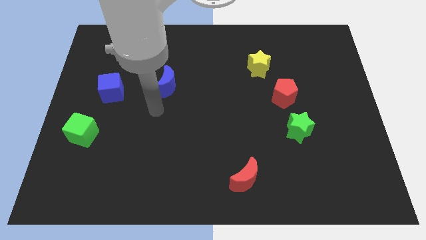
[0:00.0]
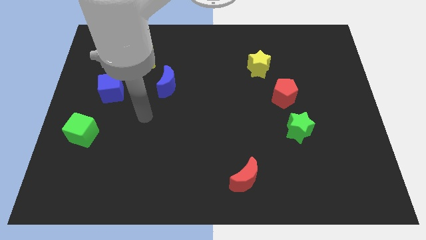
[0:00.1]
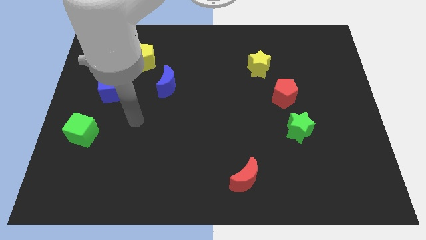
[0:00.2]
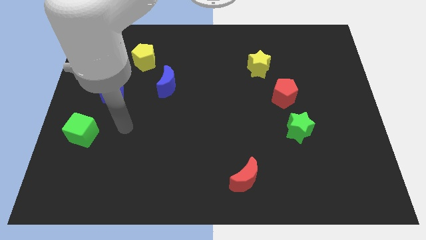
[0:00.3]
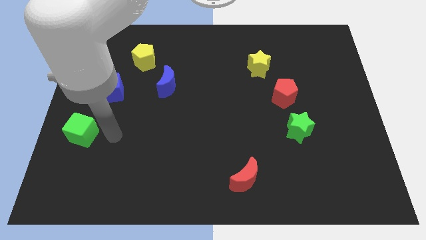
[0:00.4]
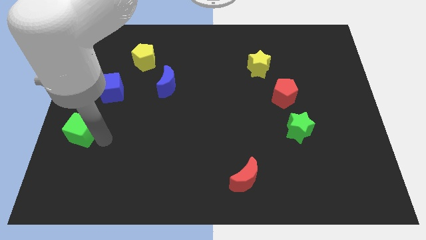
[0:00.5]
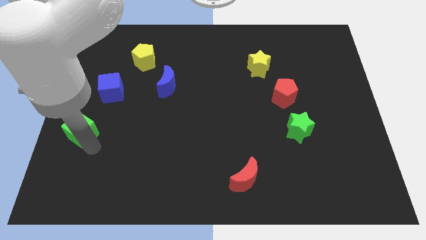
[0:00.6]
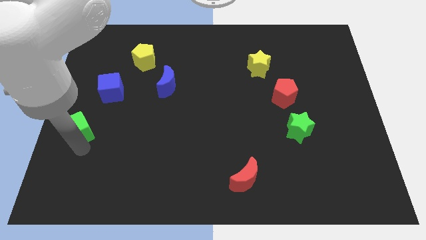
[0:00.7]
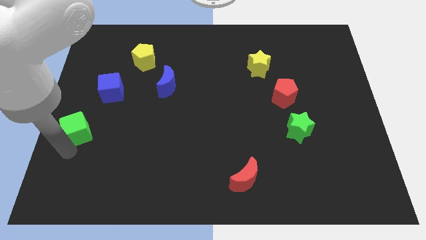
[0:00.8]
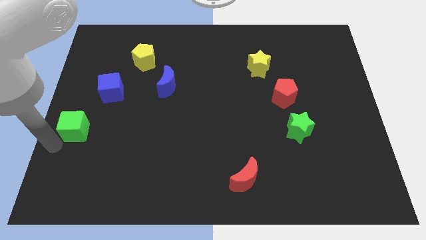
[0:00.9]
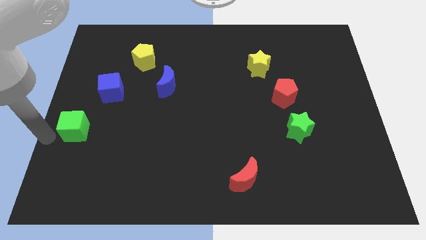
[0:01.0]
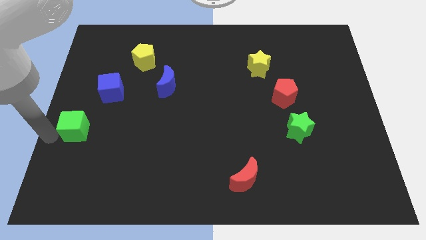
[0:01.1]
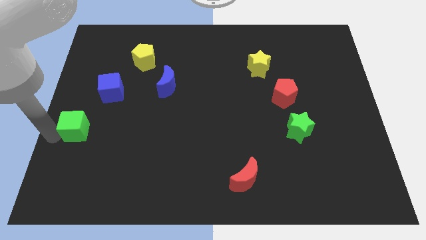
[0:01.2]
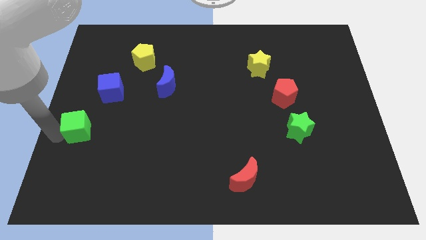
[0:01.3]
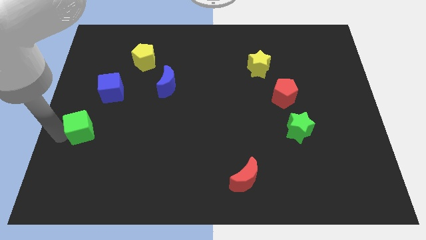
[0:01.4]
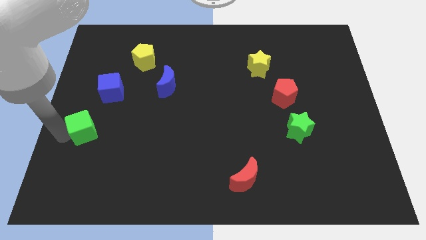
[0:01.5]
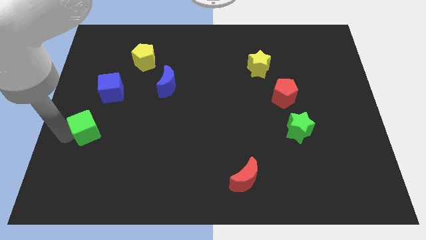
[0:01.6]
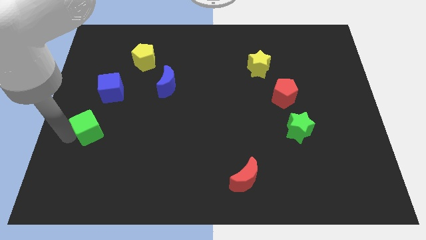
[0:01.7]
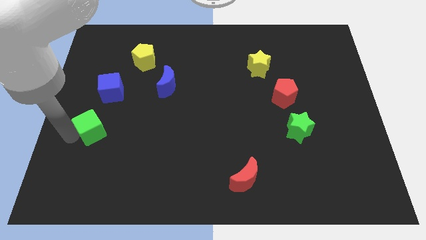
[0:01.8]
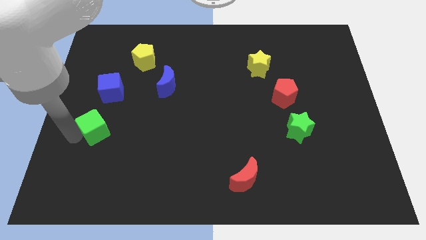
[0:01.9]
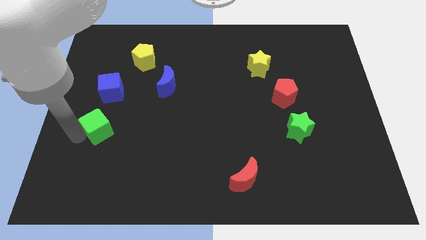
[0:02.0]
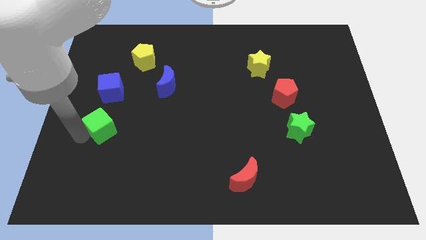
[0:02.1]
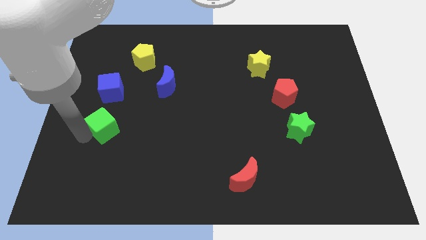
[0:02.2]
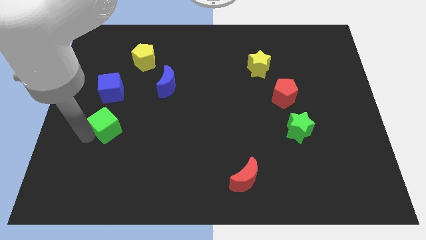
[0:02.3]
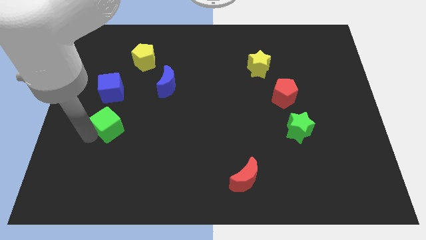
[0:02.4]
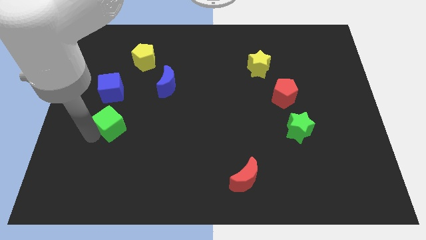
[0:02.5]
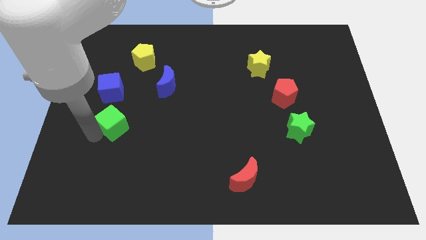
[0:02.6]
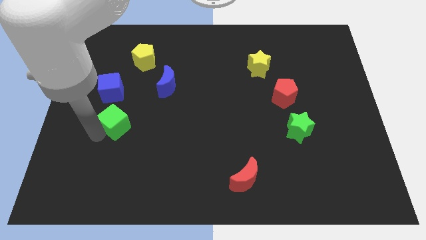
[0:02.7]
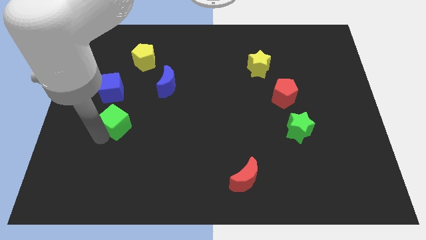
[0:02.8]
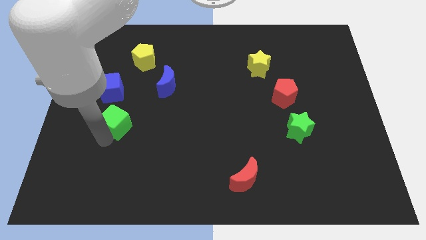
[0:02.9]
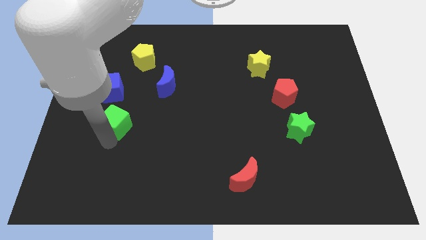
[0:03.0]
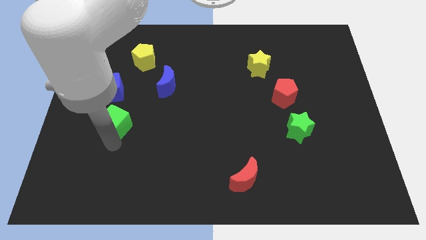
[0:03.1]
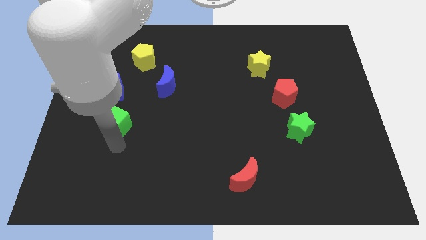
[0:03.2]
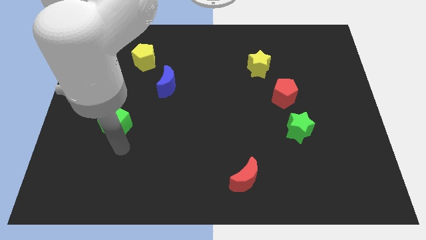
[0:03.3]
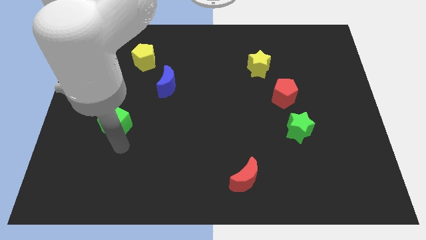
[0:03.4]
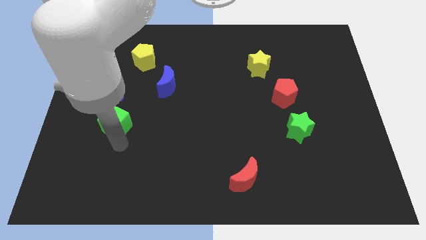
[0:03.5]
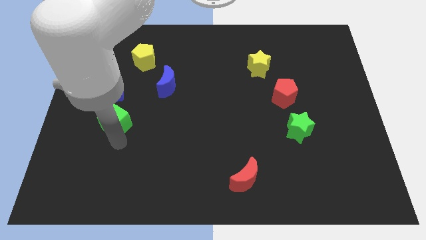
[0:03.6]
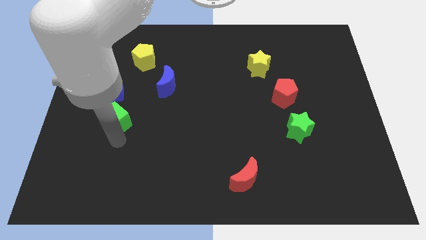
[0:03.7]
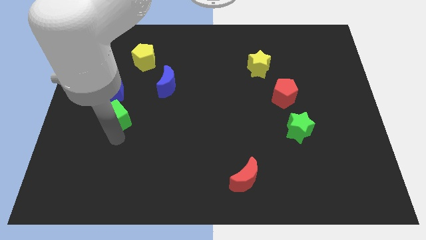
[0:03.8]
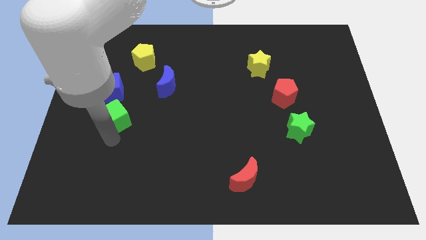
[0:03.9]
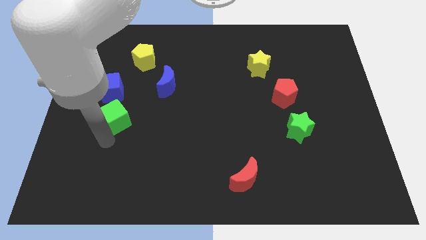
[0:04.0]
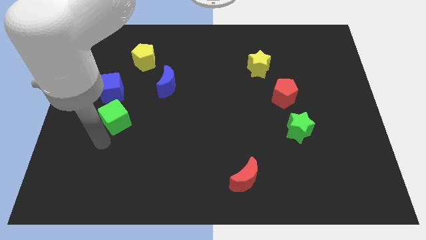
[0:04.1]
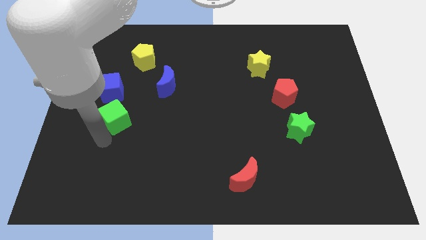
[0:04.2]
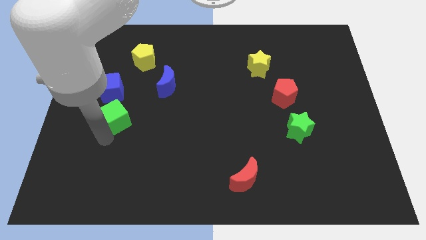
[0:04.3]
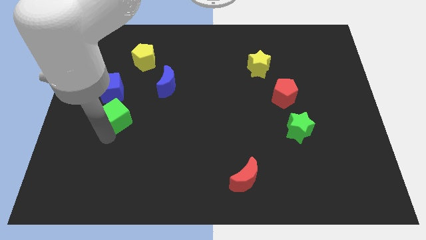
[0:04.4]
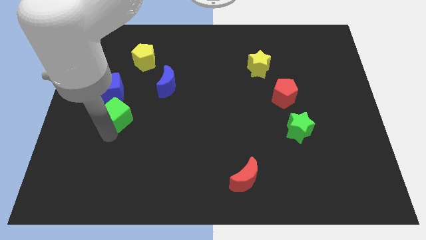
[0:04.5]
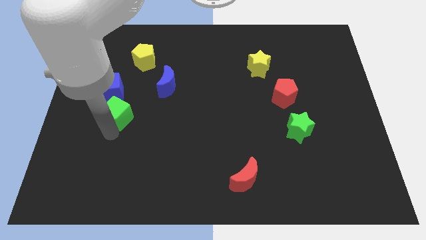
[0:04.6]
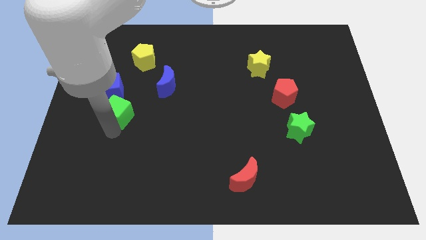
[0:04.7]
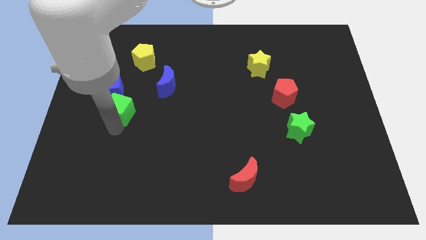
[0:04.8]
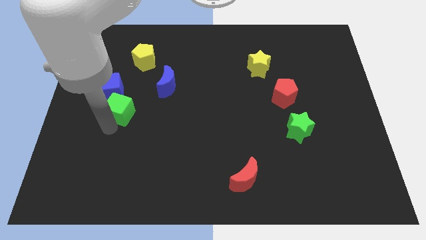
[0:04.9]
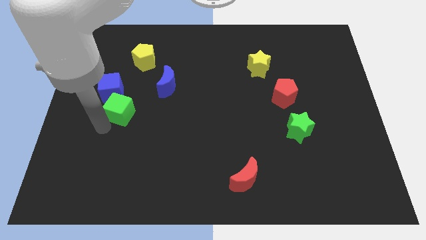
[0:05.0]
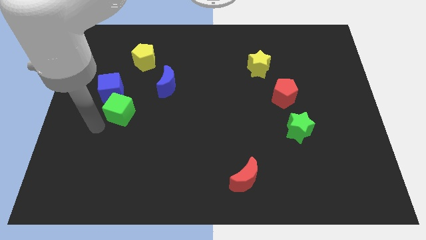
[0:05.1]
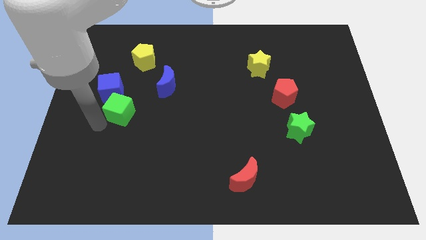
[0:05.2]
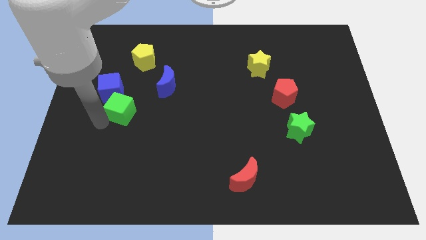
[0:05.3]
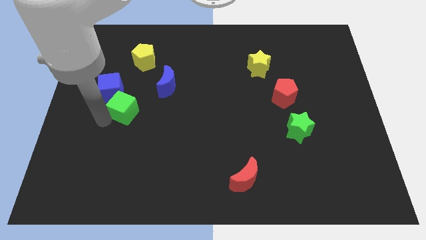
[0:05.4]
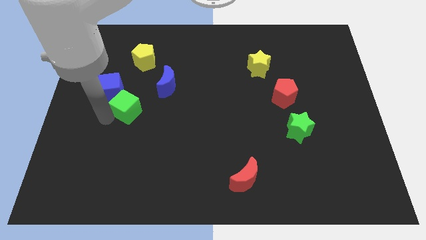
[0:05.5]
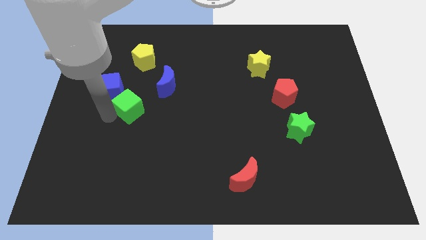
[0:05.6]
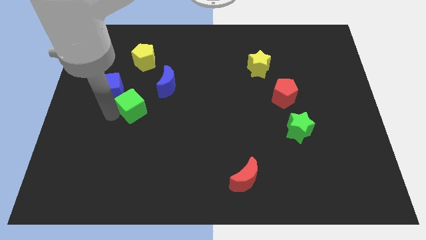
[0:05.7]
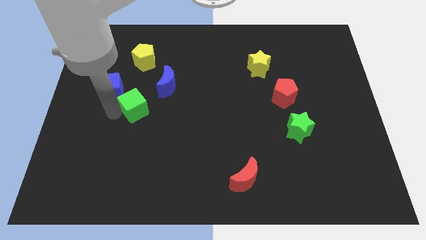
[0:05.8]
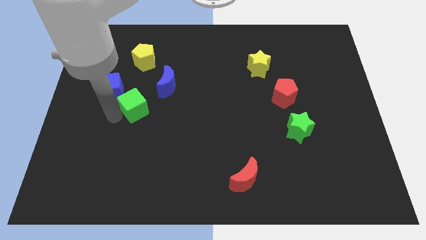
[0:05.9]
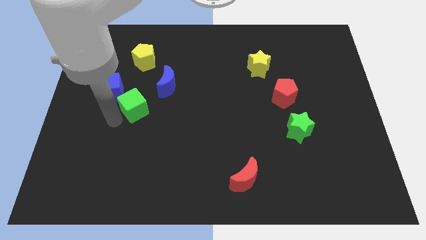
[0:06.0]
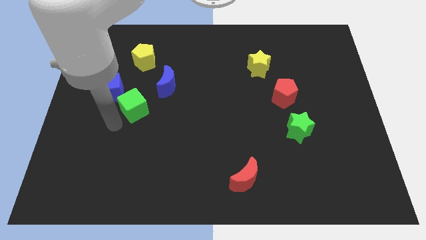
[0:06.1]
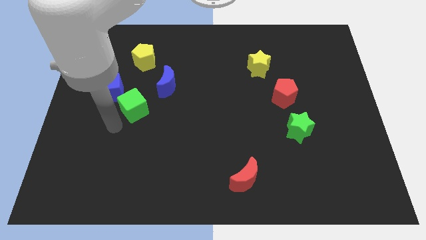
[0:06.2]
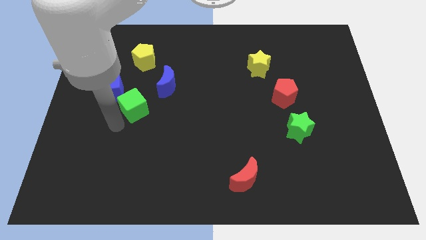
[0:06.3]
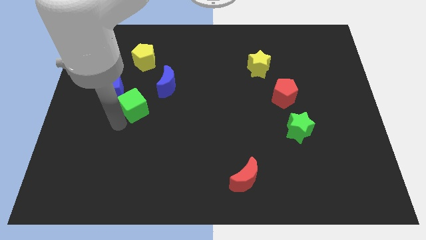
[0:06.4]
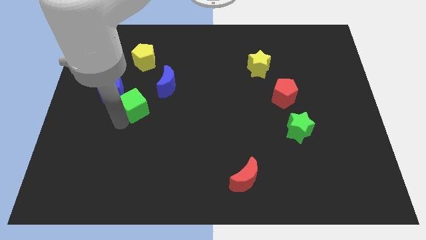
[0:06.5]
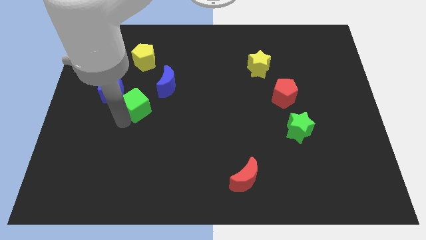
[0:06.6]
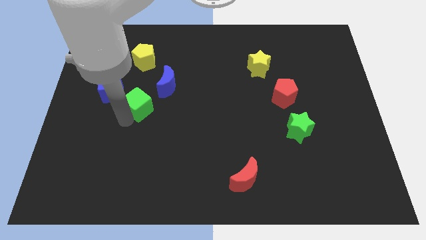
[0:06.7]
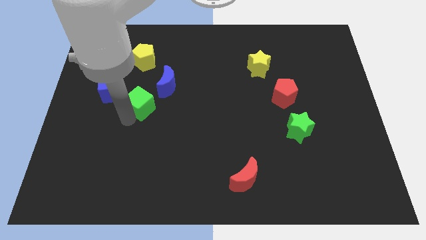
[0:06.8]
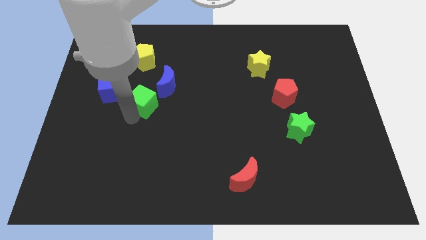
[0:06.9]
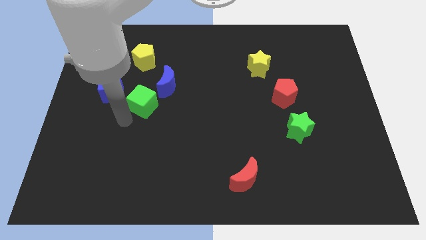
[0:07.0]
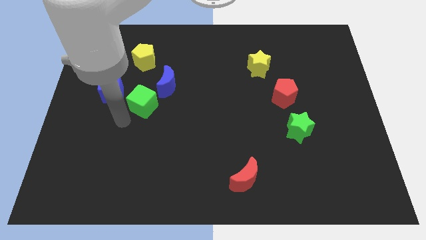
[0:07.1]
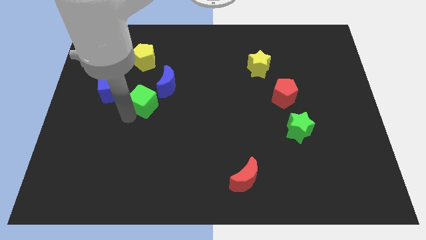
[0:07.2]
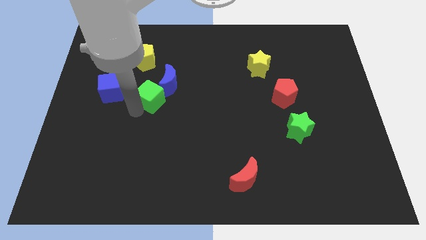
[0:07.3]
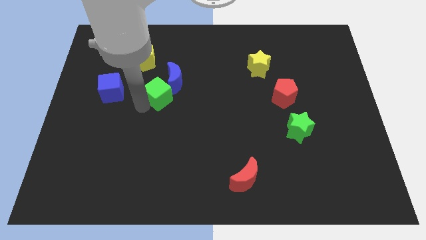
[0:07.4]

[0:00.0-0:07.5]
push the green cube to the blue moon
